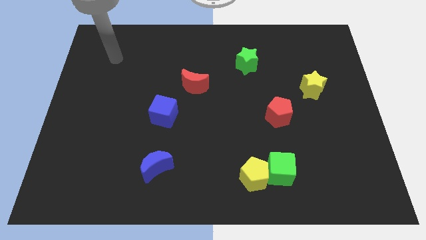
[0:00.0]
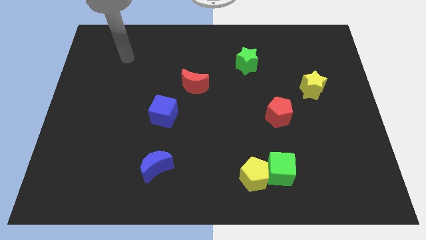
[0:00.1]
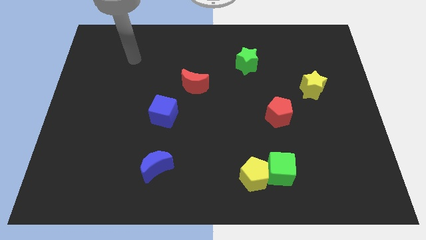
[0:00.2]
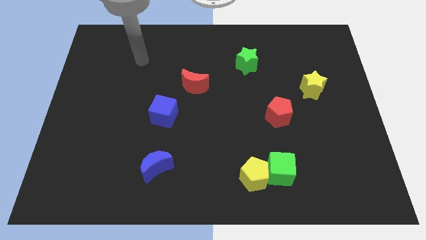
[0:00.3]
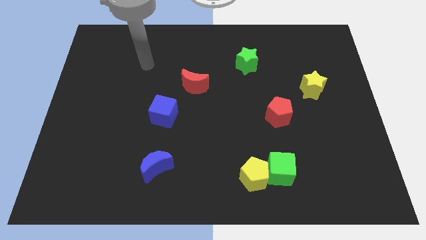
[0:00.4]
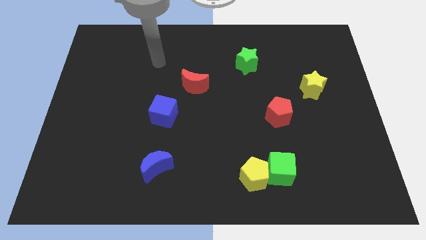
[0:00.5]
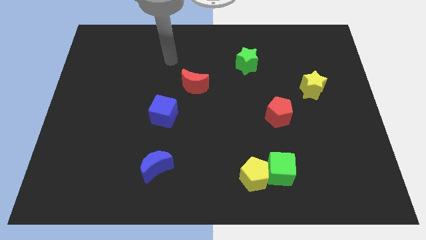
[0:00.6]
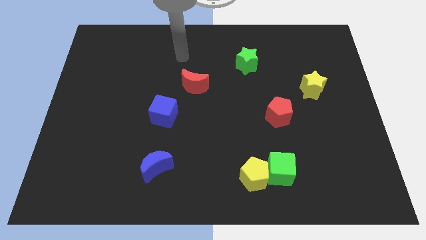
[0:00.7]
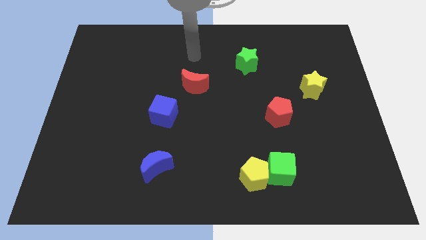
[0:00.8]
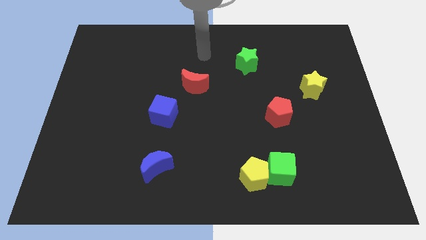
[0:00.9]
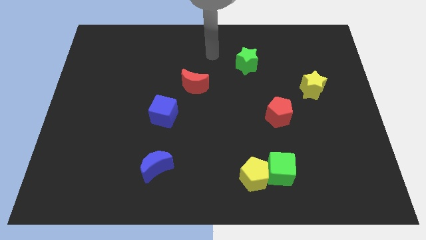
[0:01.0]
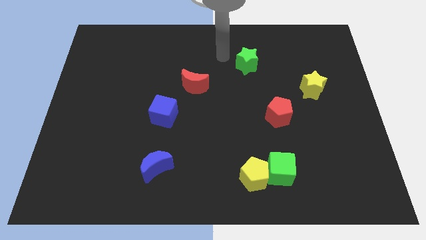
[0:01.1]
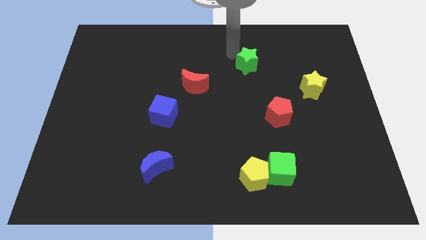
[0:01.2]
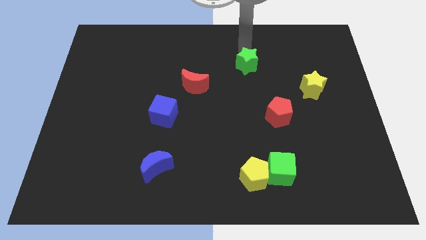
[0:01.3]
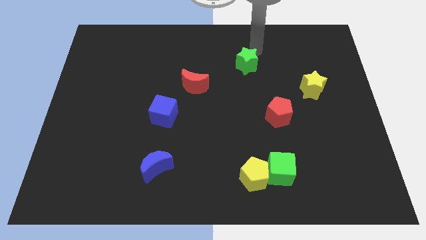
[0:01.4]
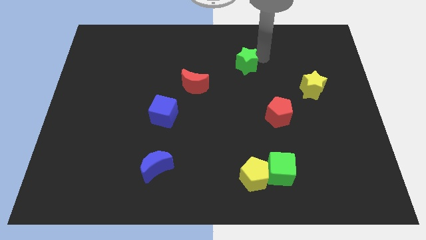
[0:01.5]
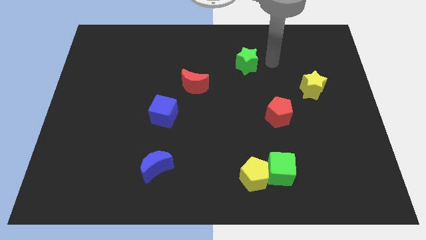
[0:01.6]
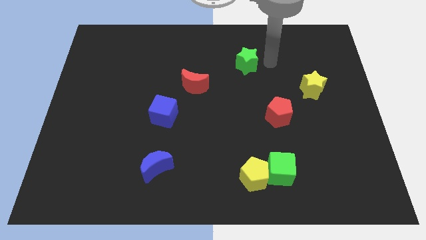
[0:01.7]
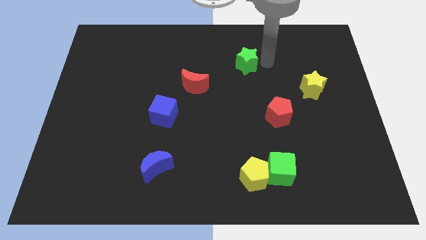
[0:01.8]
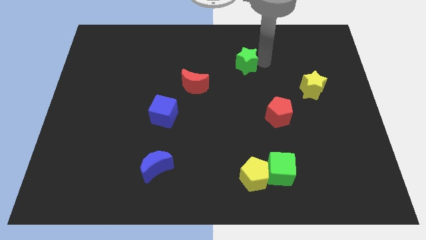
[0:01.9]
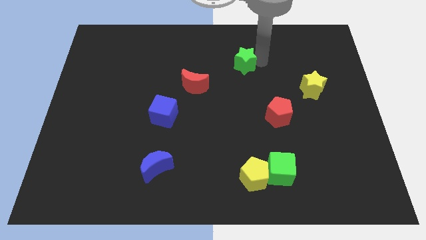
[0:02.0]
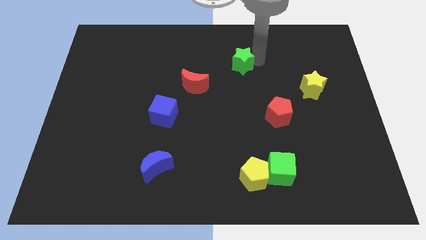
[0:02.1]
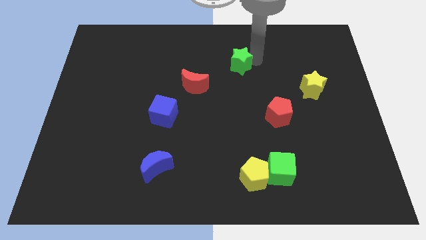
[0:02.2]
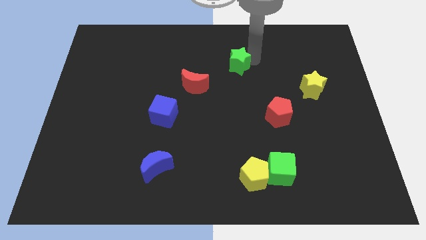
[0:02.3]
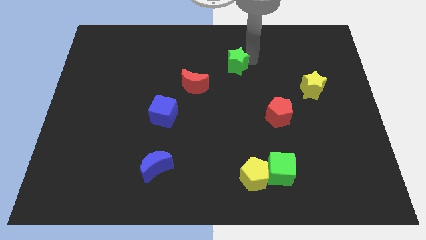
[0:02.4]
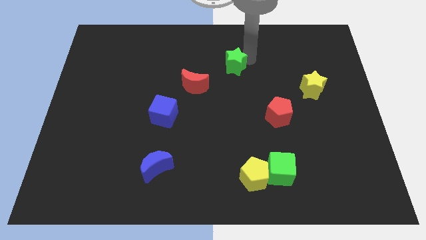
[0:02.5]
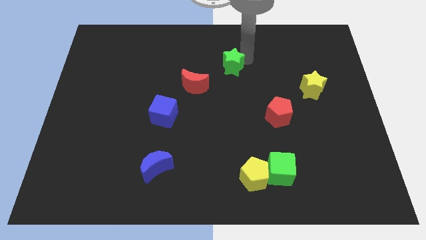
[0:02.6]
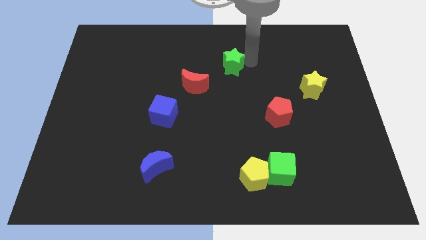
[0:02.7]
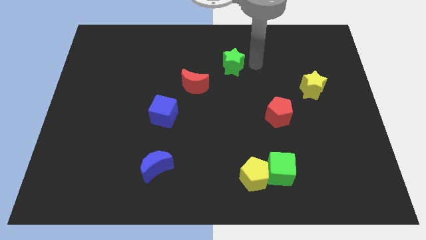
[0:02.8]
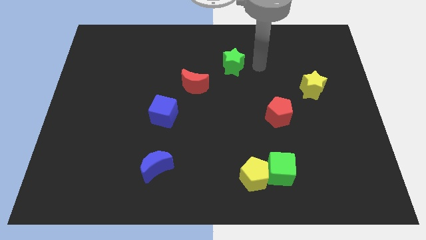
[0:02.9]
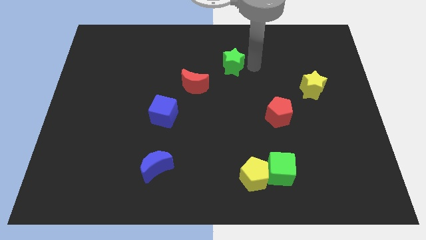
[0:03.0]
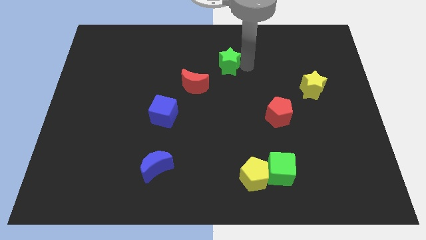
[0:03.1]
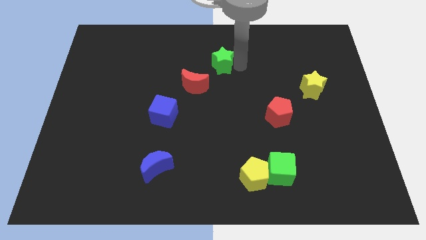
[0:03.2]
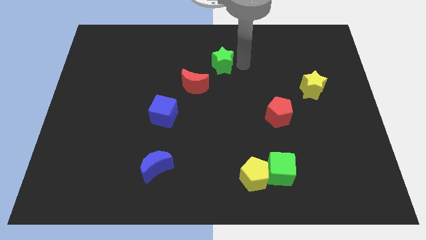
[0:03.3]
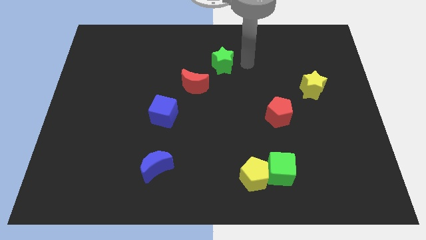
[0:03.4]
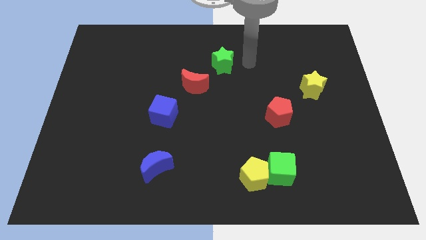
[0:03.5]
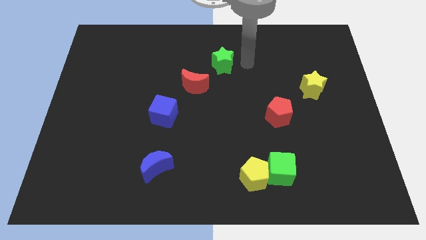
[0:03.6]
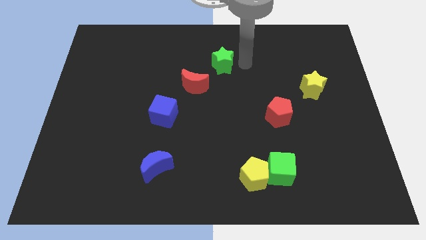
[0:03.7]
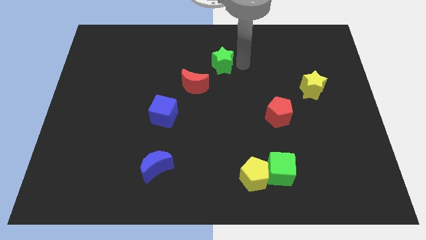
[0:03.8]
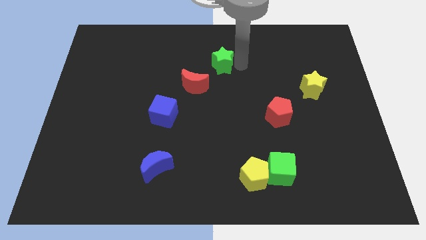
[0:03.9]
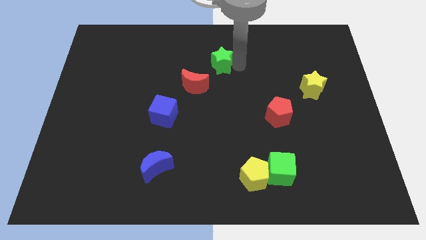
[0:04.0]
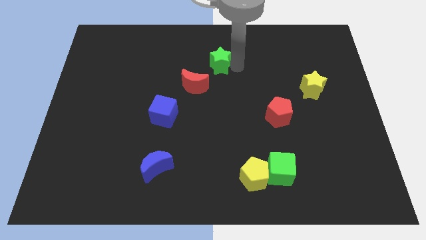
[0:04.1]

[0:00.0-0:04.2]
slide the green star a bit left

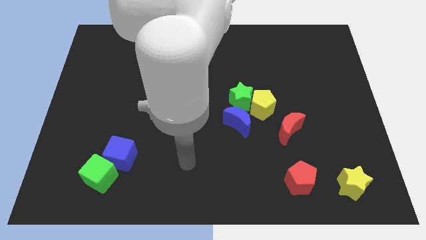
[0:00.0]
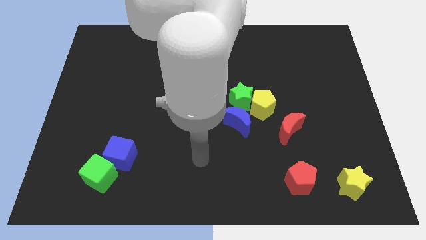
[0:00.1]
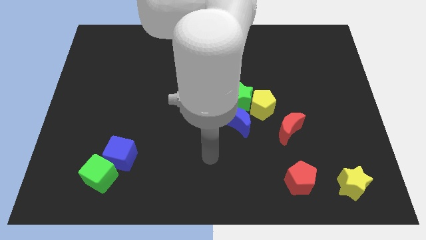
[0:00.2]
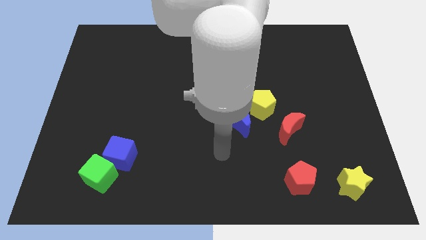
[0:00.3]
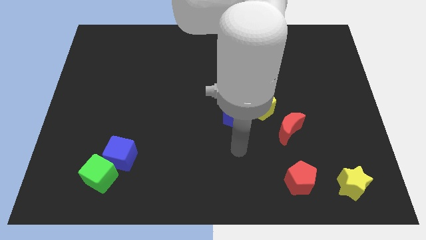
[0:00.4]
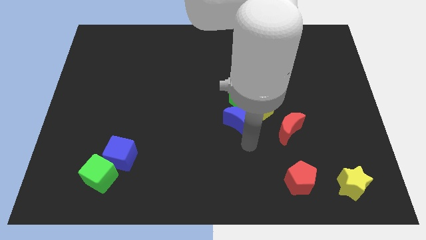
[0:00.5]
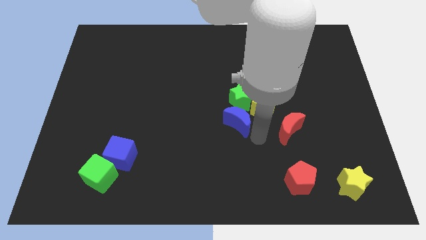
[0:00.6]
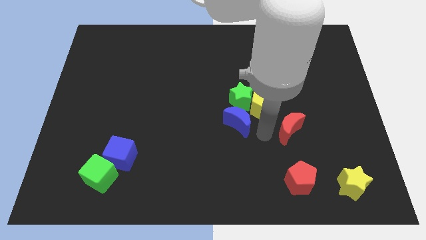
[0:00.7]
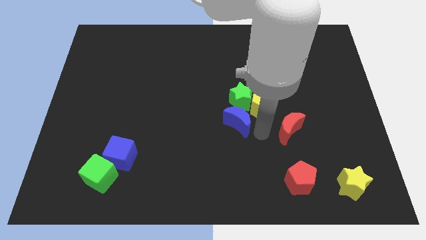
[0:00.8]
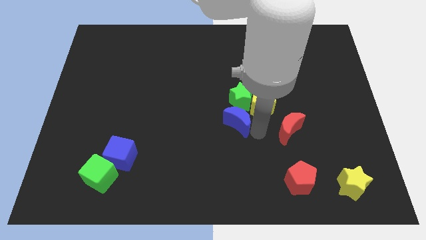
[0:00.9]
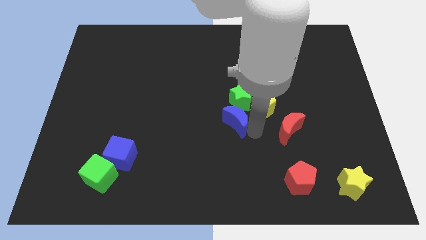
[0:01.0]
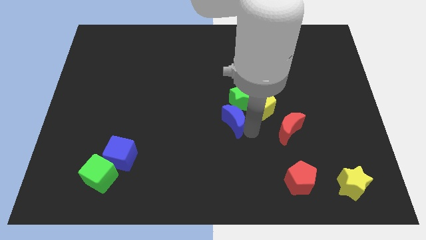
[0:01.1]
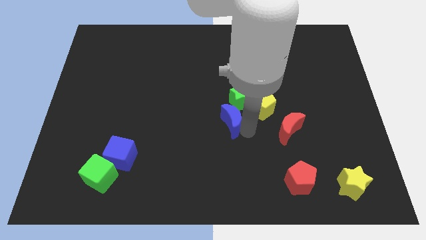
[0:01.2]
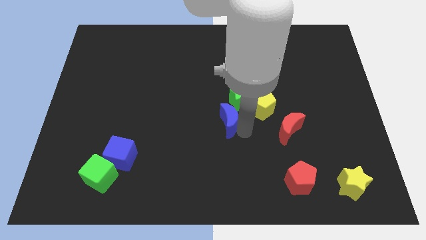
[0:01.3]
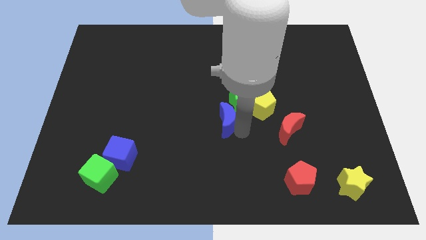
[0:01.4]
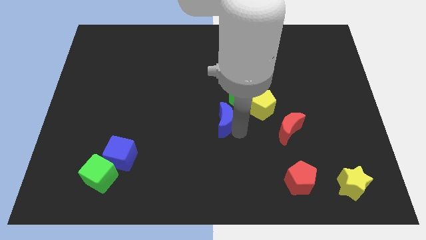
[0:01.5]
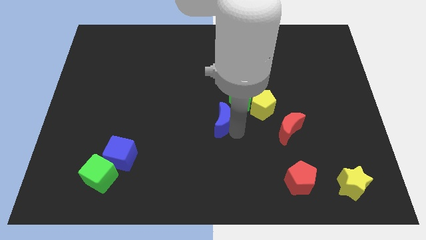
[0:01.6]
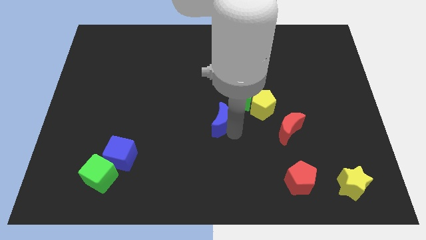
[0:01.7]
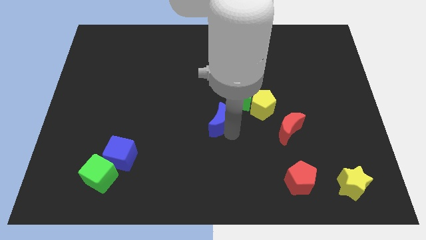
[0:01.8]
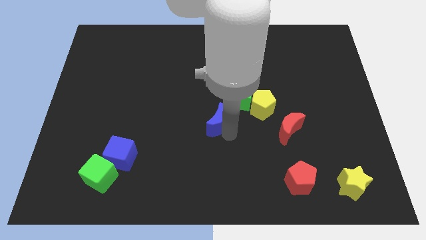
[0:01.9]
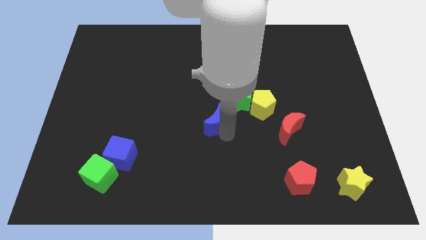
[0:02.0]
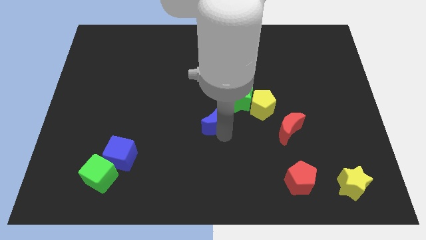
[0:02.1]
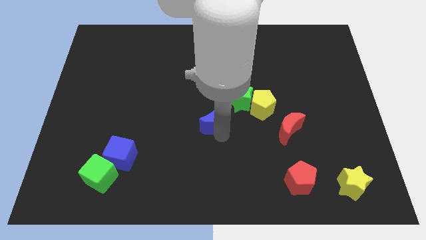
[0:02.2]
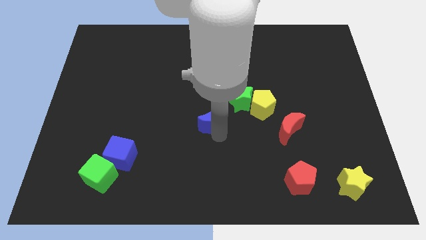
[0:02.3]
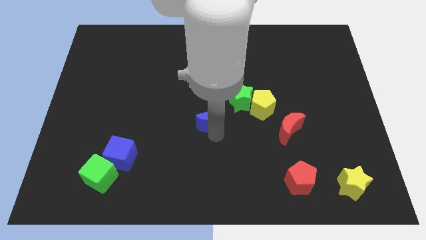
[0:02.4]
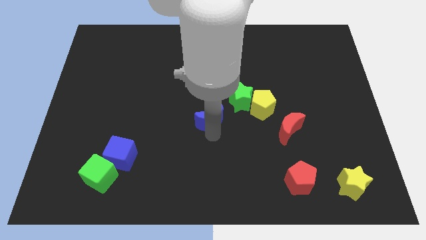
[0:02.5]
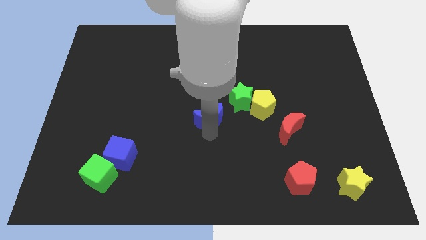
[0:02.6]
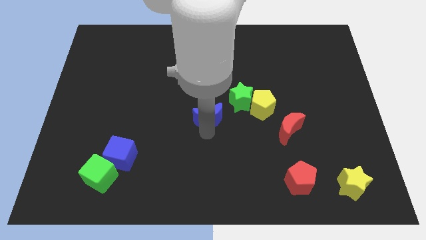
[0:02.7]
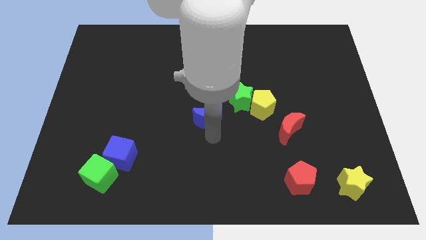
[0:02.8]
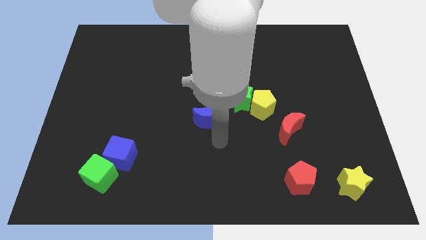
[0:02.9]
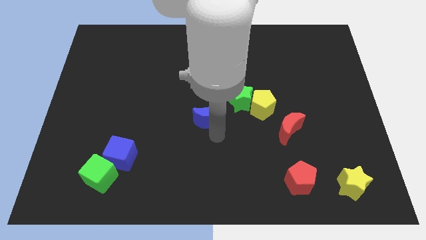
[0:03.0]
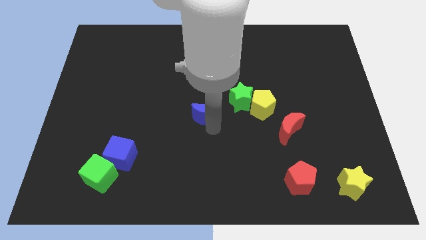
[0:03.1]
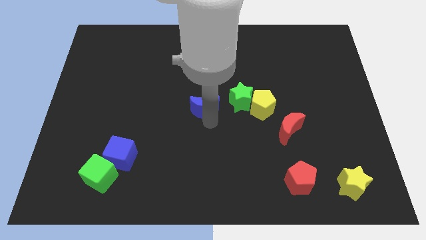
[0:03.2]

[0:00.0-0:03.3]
slightly slide the blue moon up and to the left

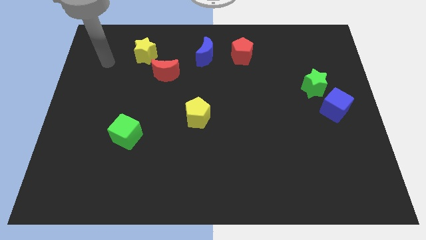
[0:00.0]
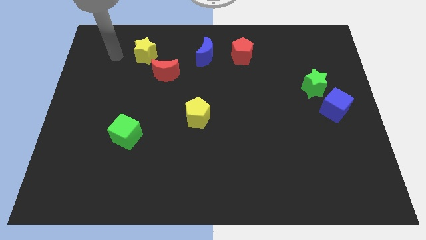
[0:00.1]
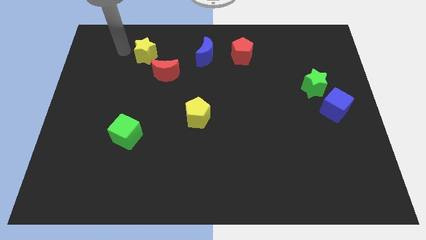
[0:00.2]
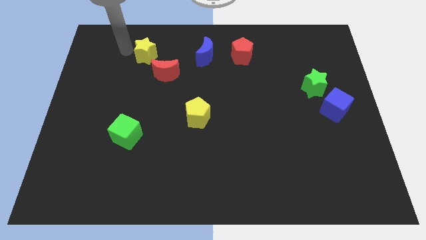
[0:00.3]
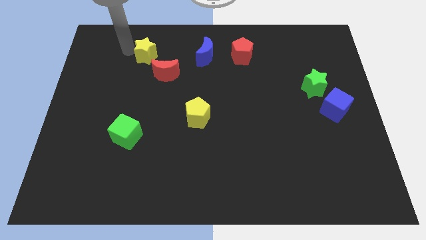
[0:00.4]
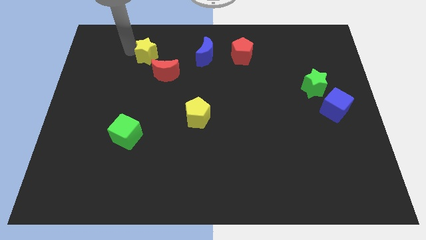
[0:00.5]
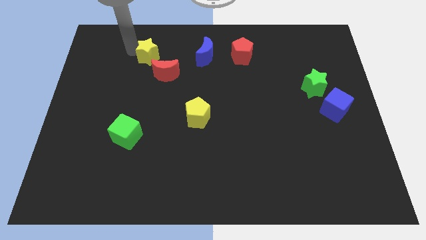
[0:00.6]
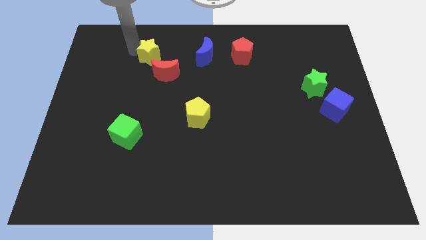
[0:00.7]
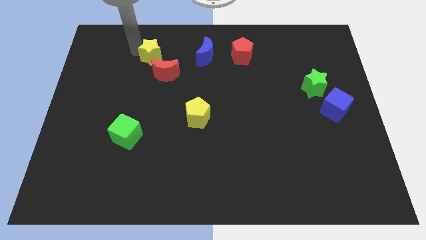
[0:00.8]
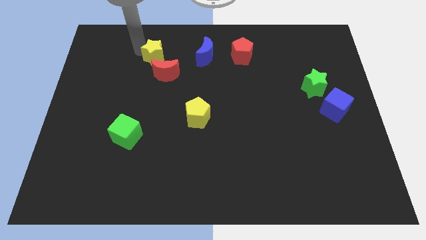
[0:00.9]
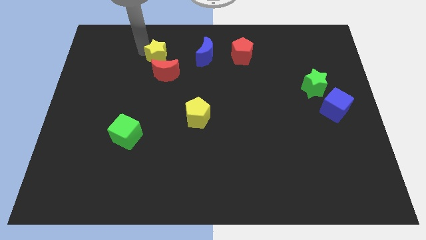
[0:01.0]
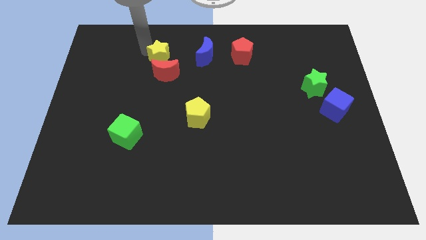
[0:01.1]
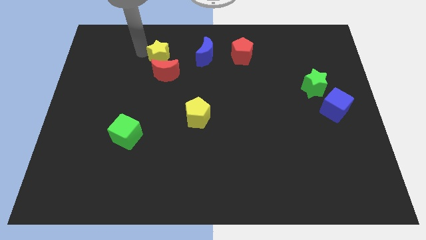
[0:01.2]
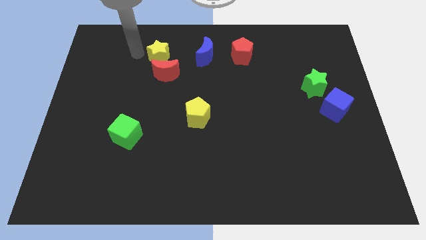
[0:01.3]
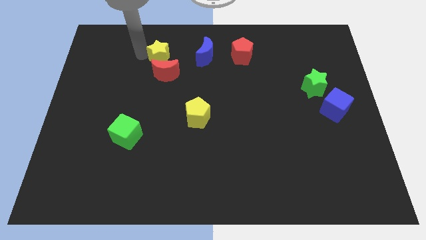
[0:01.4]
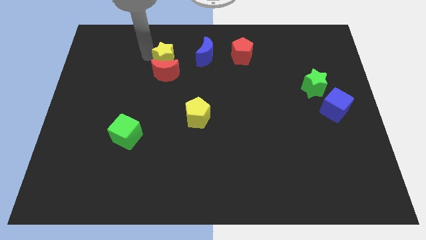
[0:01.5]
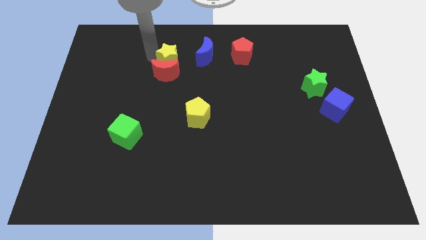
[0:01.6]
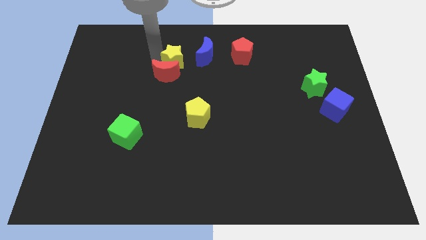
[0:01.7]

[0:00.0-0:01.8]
push the yellow star slightly diagonally downwards and right
